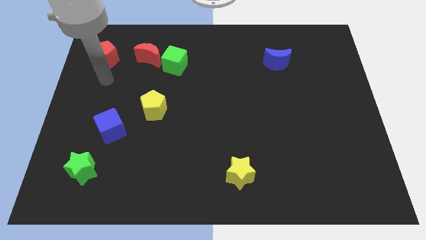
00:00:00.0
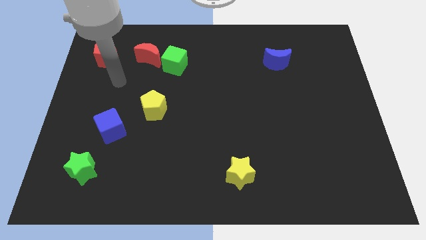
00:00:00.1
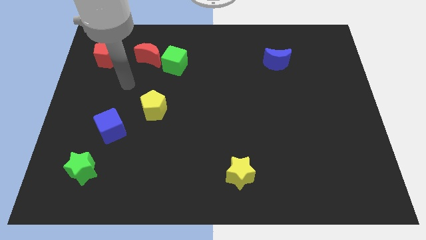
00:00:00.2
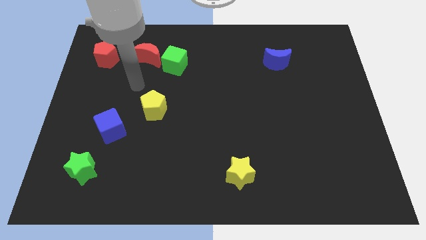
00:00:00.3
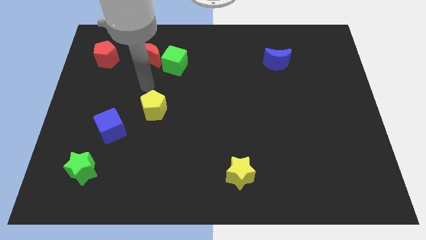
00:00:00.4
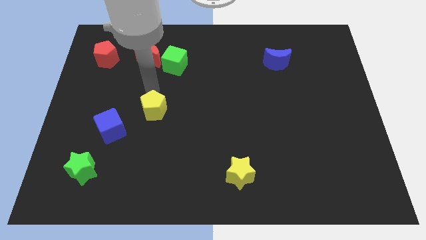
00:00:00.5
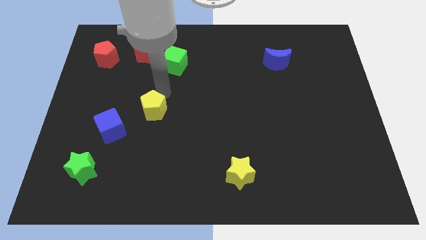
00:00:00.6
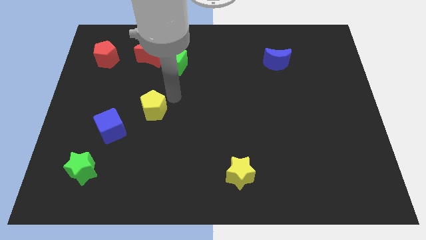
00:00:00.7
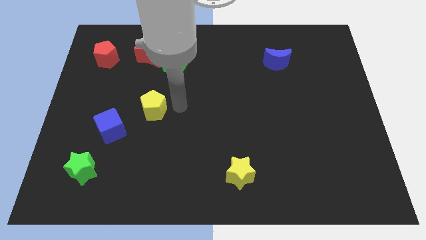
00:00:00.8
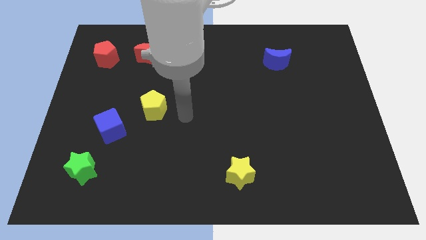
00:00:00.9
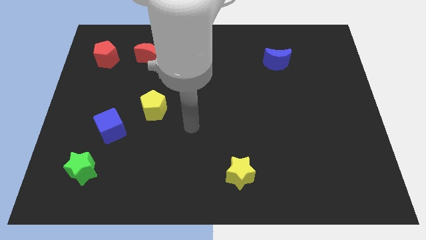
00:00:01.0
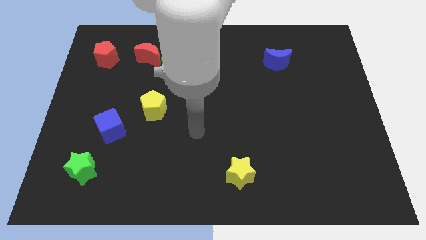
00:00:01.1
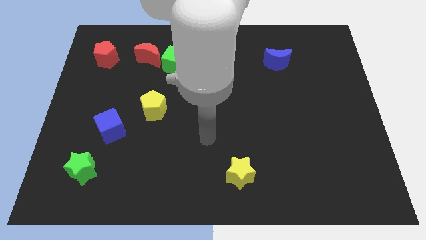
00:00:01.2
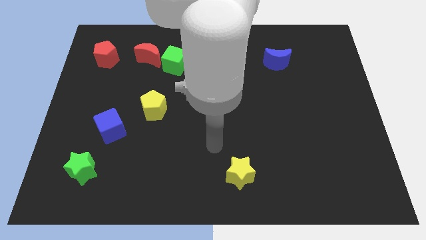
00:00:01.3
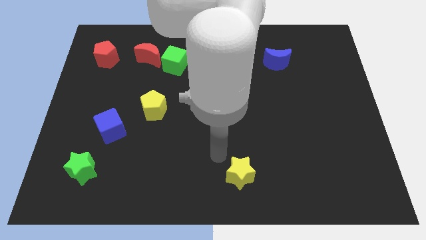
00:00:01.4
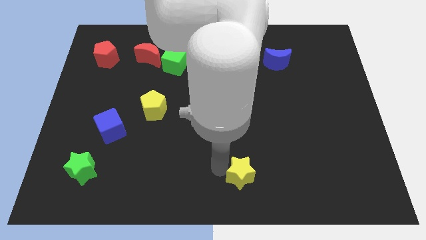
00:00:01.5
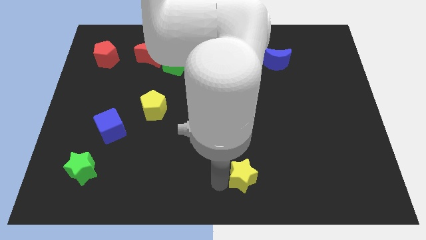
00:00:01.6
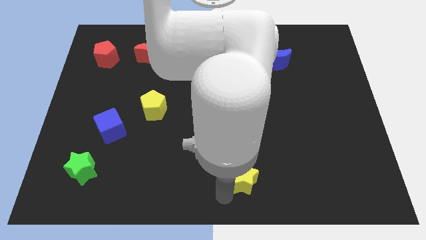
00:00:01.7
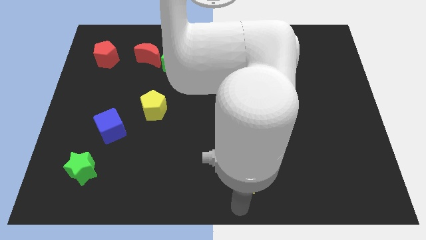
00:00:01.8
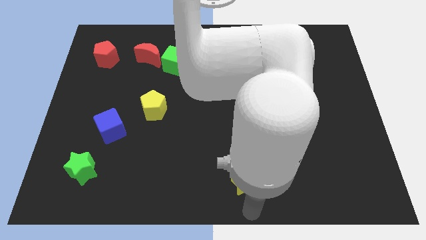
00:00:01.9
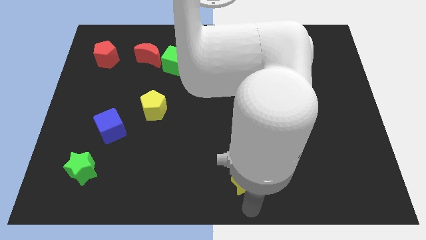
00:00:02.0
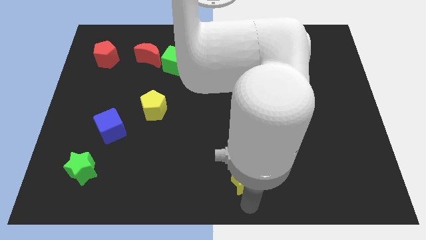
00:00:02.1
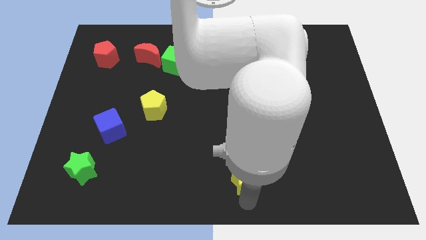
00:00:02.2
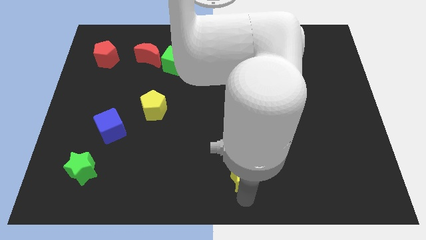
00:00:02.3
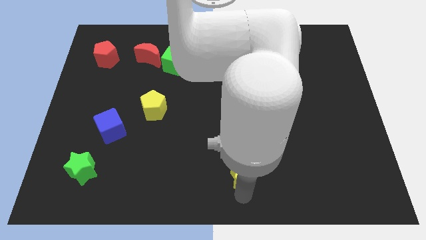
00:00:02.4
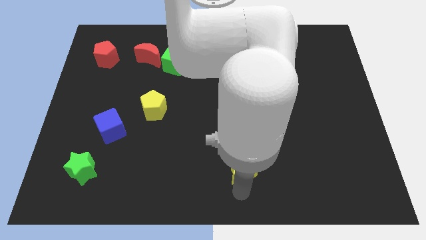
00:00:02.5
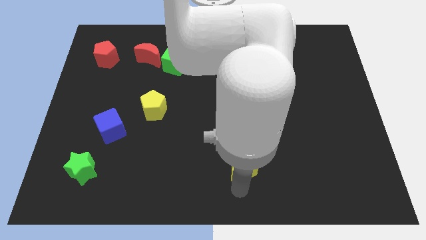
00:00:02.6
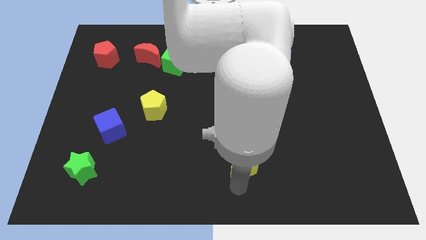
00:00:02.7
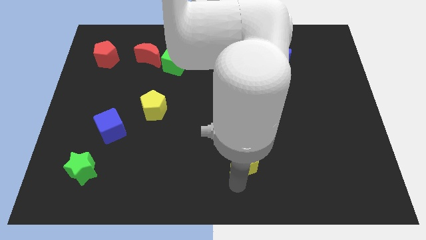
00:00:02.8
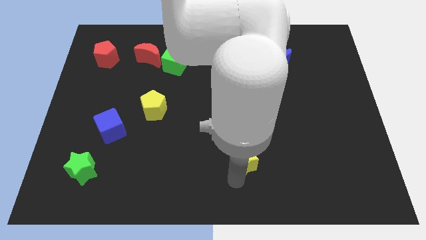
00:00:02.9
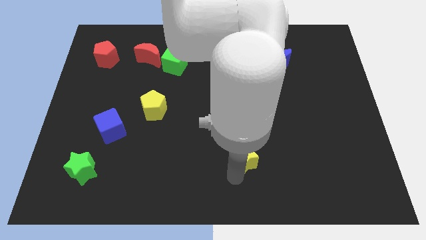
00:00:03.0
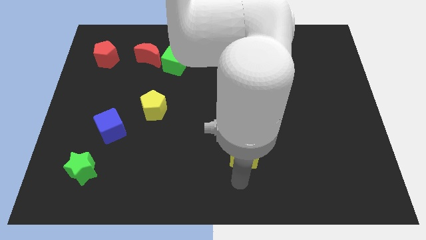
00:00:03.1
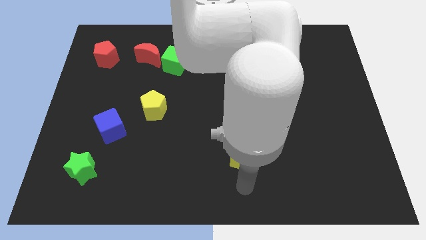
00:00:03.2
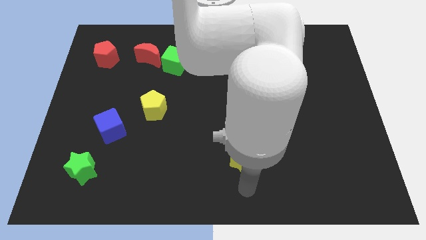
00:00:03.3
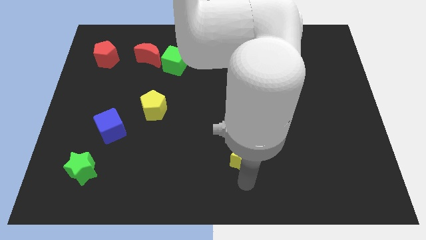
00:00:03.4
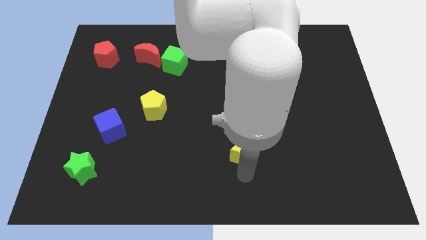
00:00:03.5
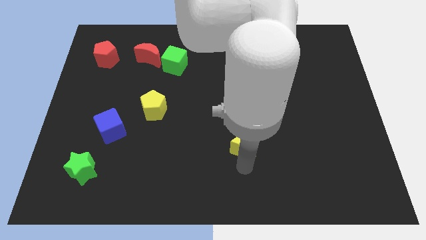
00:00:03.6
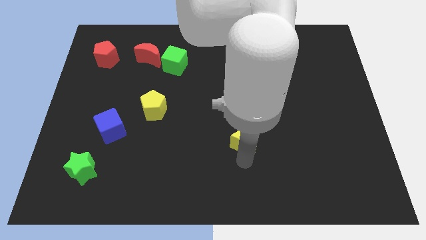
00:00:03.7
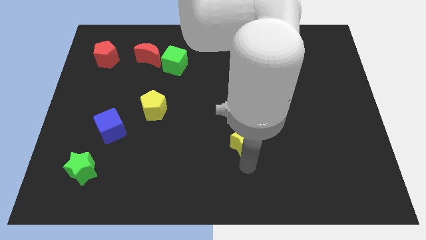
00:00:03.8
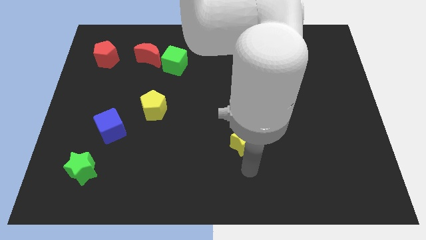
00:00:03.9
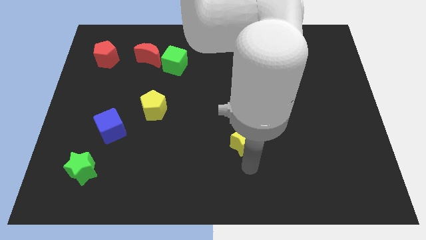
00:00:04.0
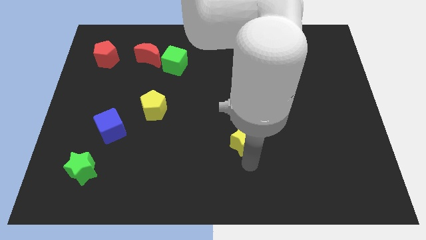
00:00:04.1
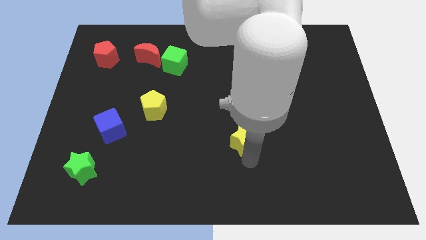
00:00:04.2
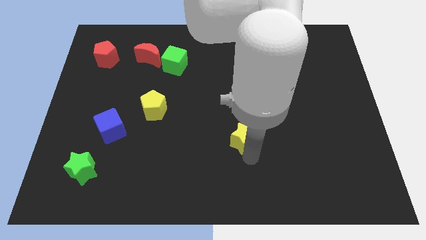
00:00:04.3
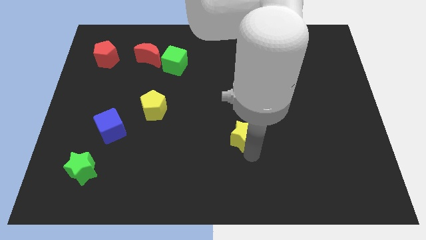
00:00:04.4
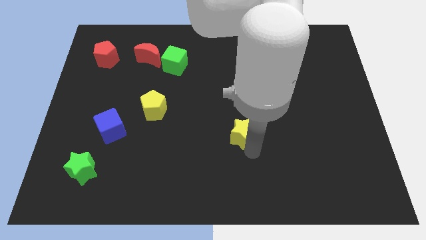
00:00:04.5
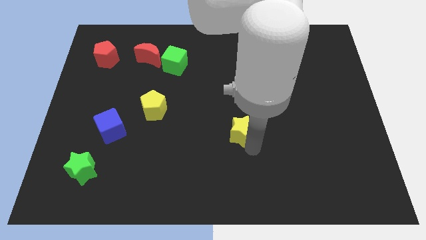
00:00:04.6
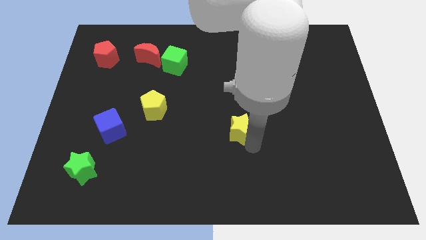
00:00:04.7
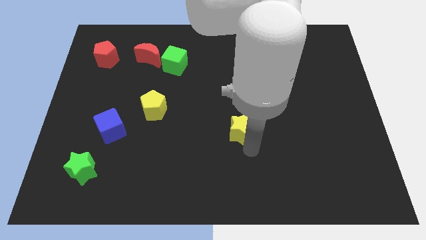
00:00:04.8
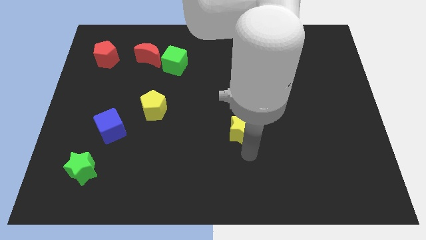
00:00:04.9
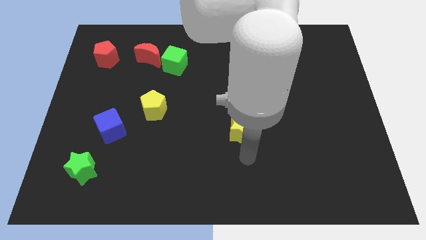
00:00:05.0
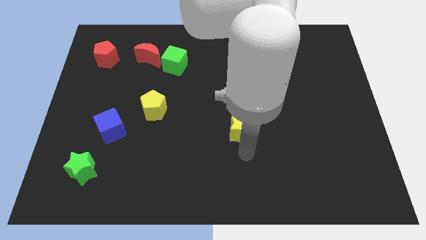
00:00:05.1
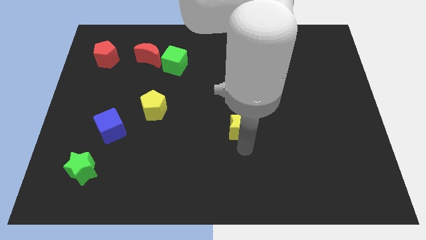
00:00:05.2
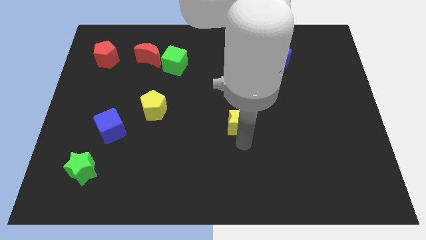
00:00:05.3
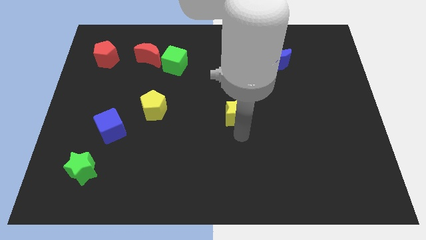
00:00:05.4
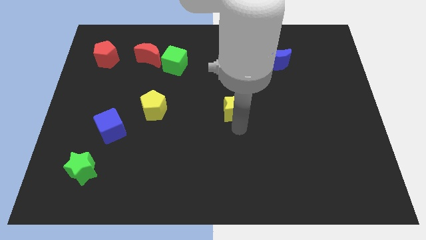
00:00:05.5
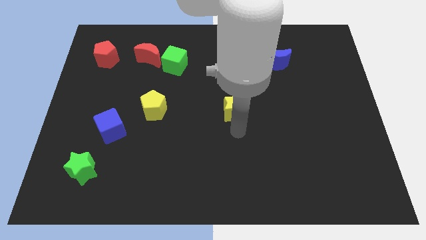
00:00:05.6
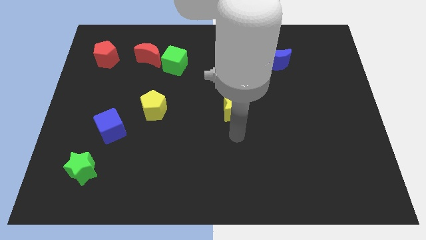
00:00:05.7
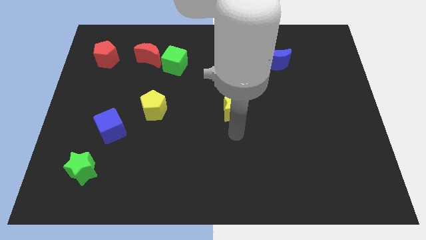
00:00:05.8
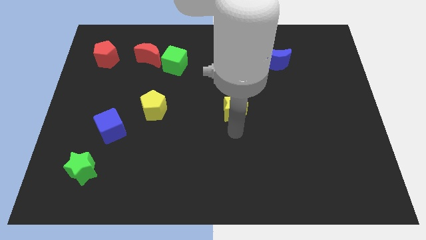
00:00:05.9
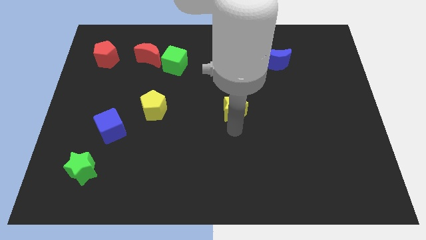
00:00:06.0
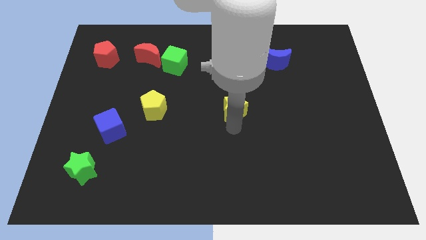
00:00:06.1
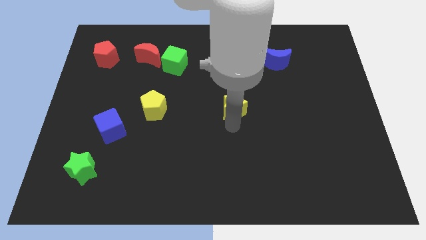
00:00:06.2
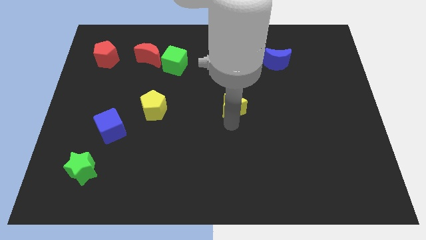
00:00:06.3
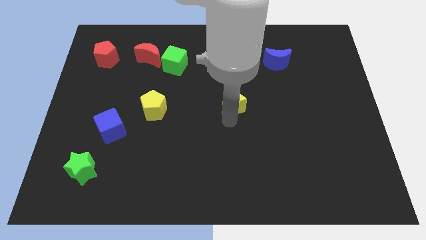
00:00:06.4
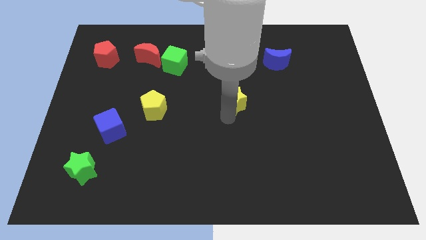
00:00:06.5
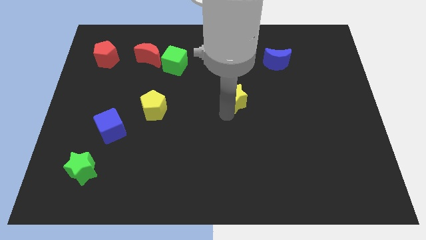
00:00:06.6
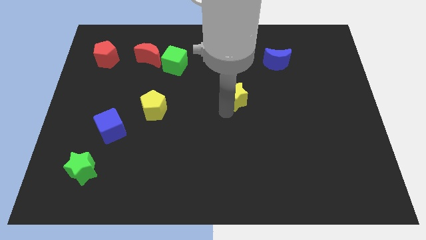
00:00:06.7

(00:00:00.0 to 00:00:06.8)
slide the yellow star up

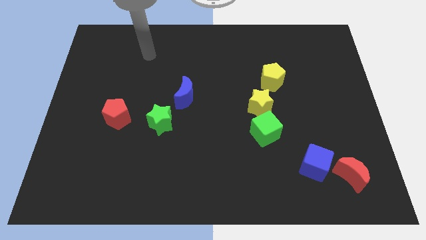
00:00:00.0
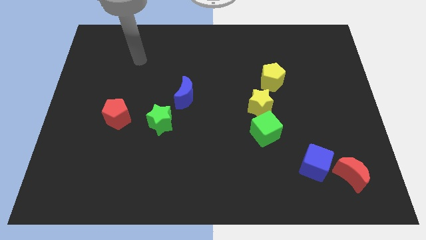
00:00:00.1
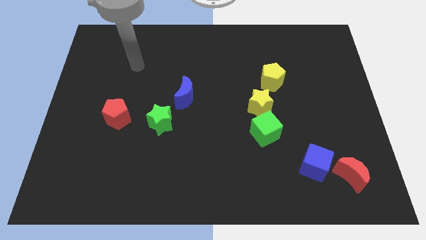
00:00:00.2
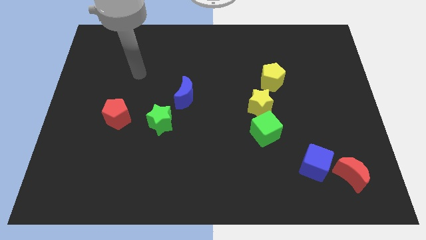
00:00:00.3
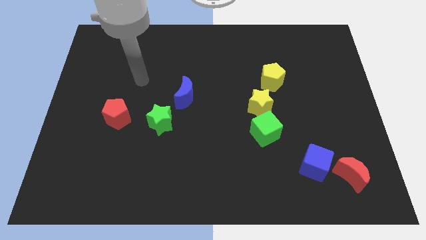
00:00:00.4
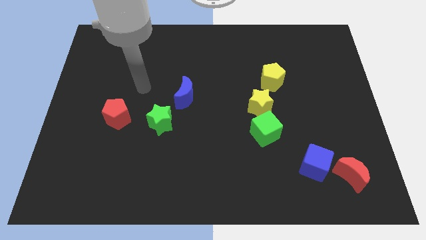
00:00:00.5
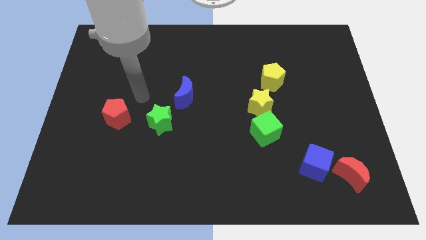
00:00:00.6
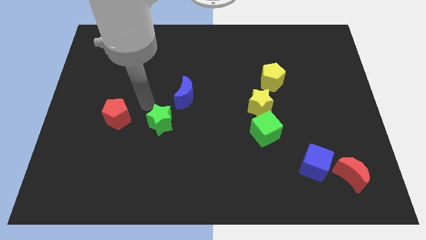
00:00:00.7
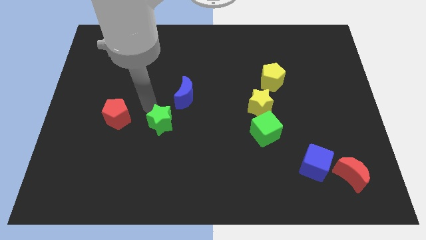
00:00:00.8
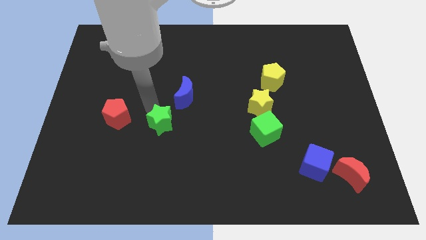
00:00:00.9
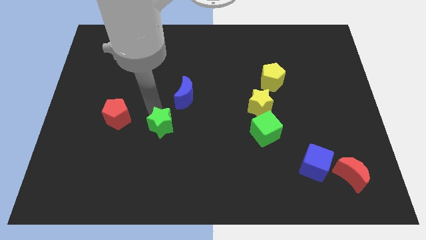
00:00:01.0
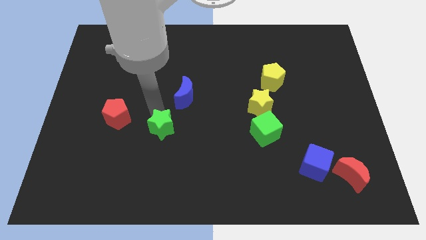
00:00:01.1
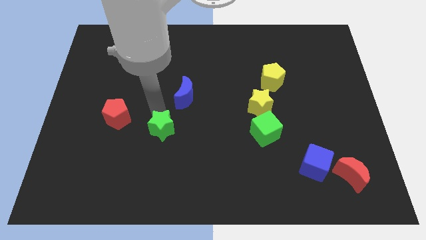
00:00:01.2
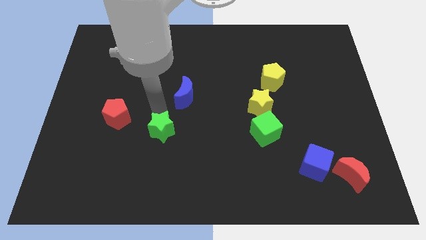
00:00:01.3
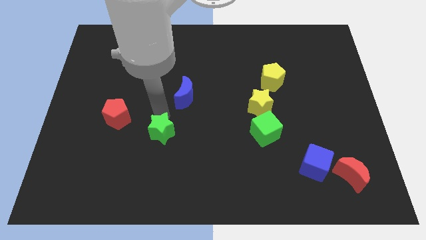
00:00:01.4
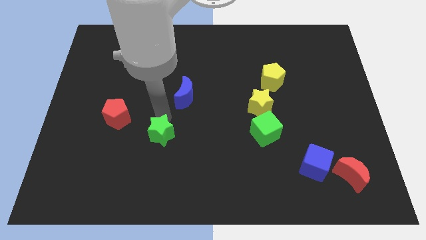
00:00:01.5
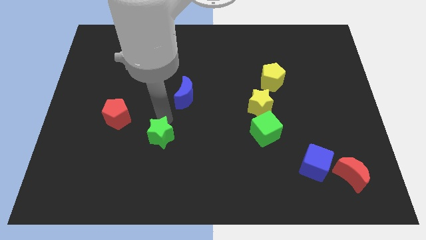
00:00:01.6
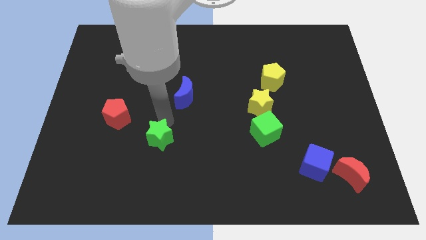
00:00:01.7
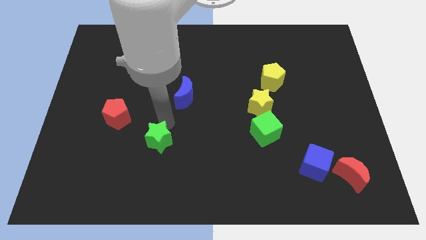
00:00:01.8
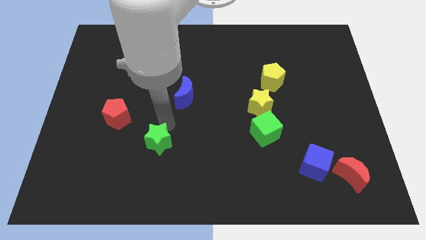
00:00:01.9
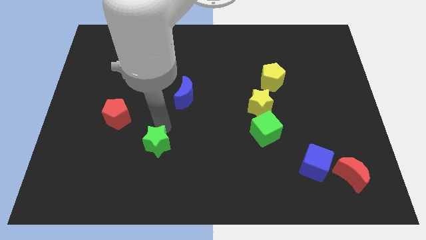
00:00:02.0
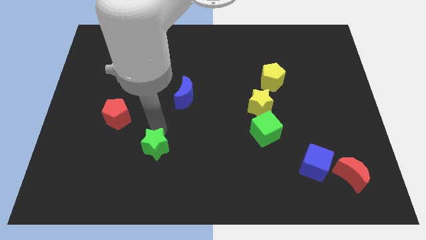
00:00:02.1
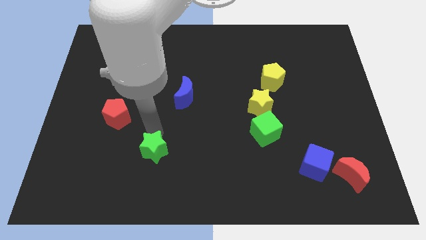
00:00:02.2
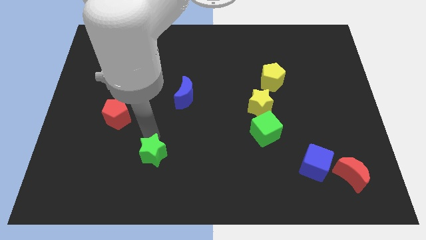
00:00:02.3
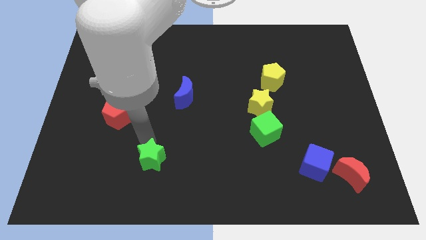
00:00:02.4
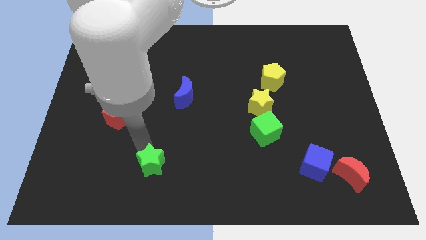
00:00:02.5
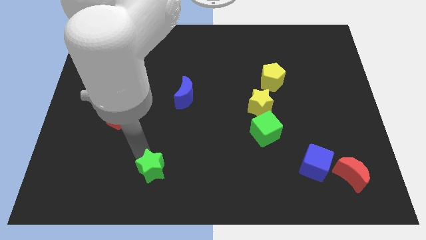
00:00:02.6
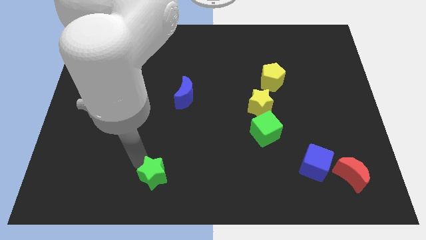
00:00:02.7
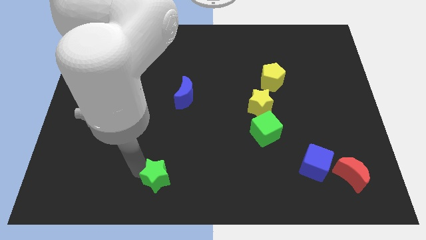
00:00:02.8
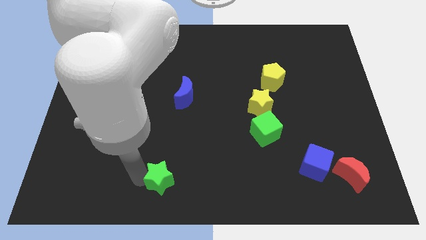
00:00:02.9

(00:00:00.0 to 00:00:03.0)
push the green star somewhat downwards and then to the right
